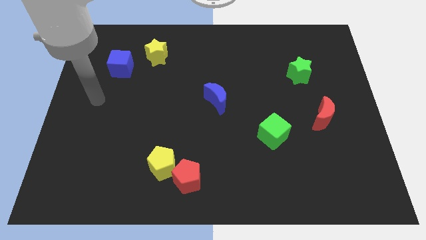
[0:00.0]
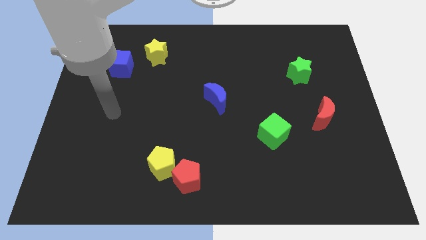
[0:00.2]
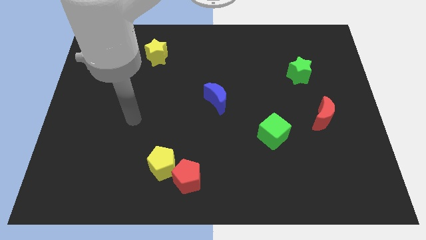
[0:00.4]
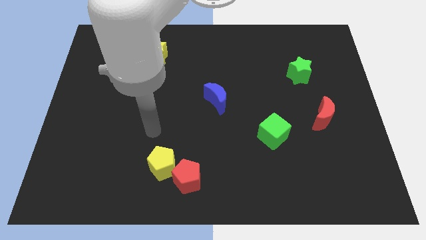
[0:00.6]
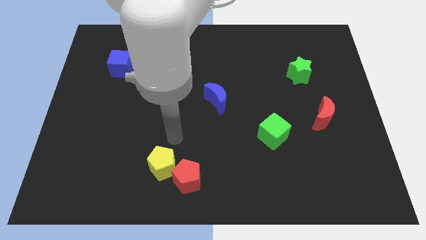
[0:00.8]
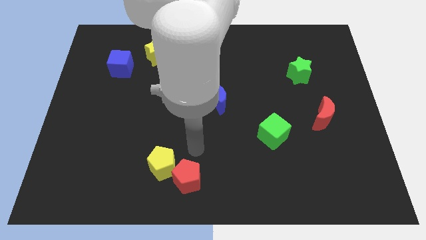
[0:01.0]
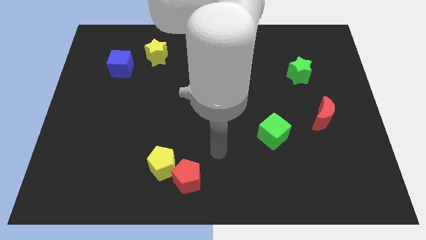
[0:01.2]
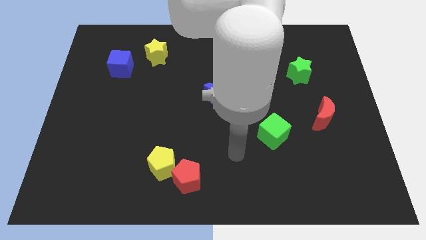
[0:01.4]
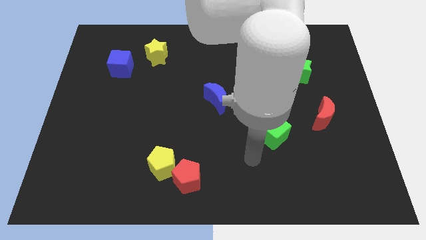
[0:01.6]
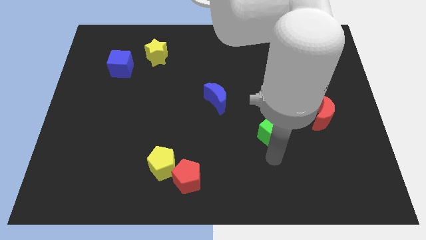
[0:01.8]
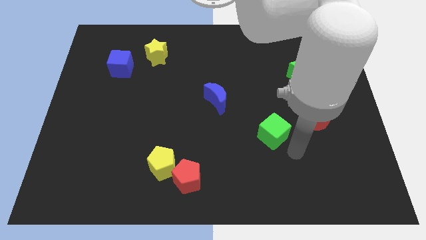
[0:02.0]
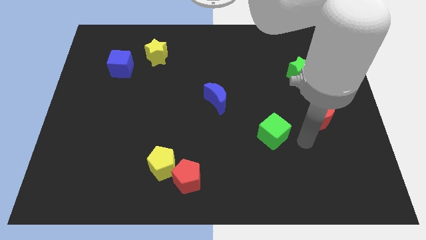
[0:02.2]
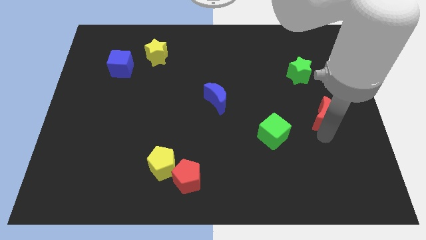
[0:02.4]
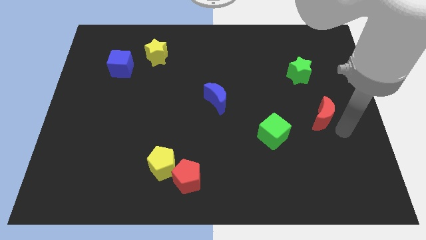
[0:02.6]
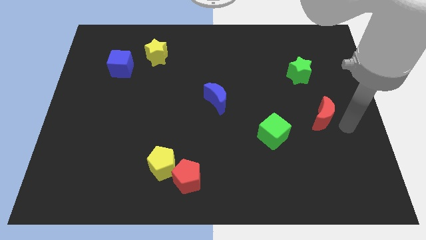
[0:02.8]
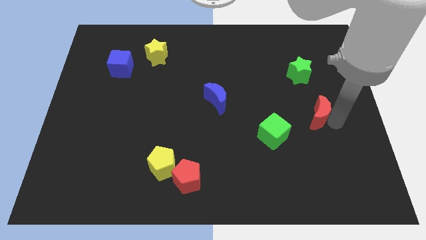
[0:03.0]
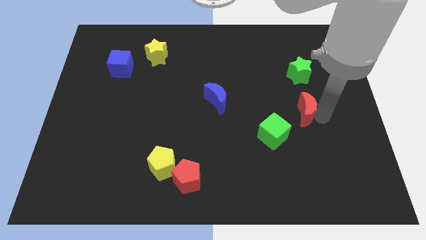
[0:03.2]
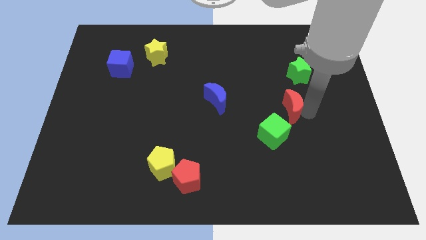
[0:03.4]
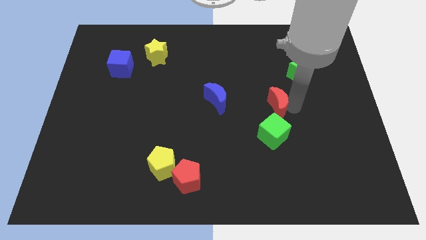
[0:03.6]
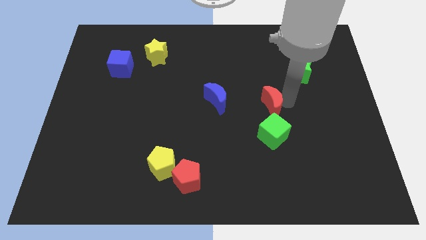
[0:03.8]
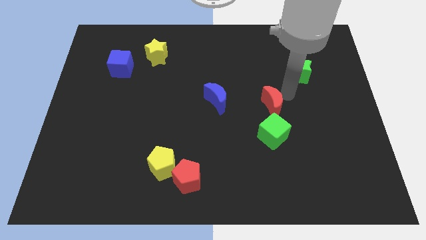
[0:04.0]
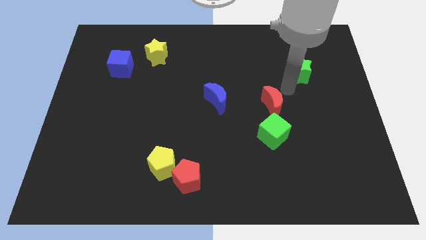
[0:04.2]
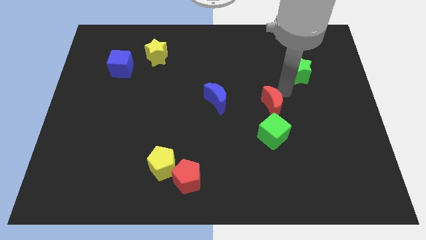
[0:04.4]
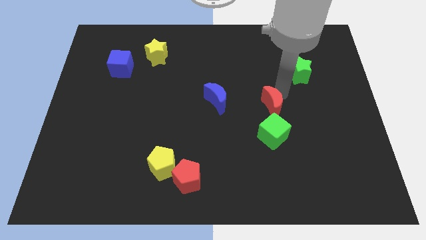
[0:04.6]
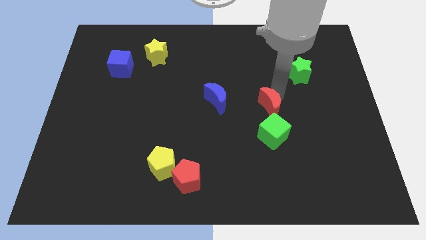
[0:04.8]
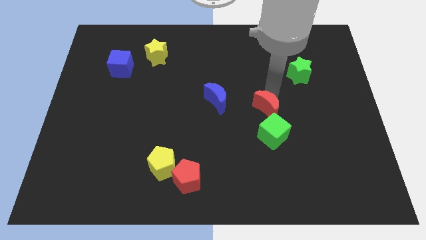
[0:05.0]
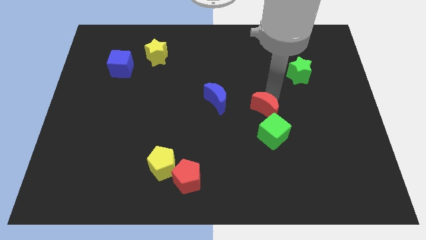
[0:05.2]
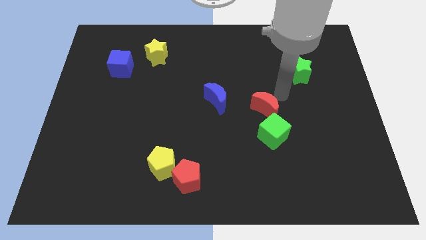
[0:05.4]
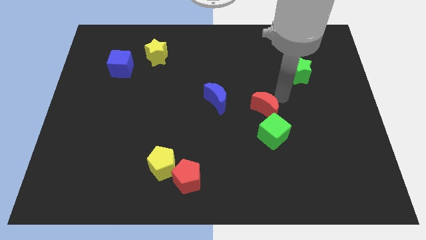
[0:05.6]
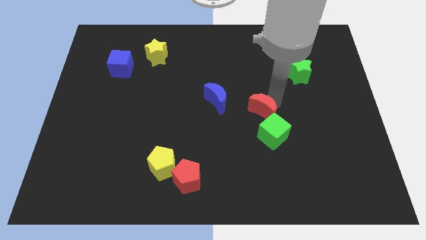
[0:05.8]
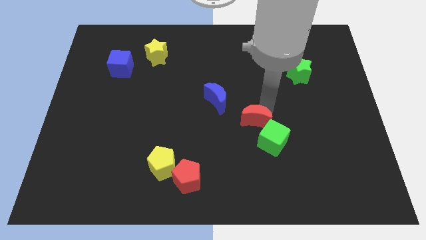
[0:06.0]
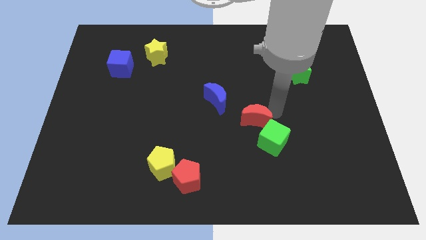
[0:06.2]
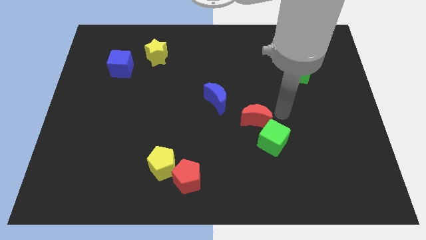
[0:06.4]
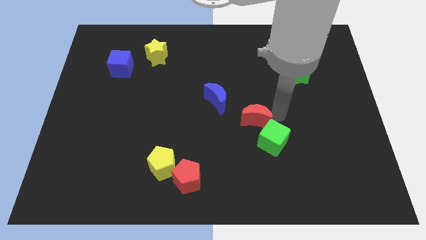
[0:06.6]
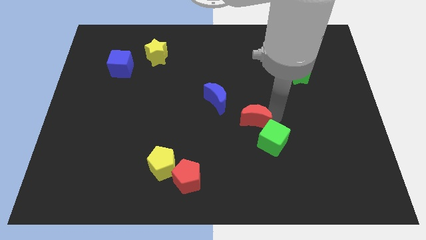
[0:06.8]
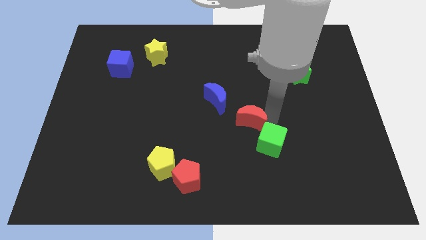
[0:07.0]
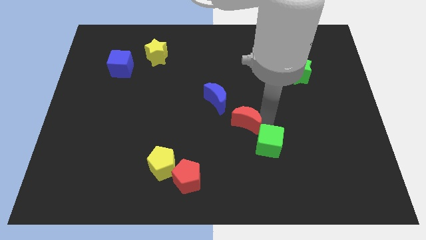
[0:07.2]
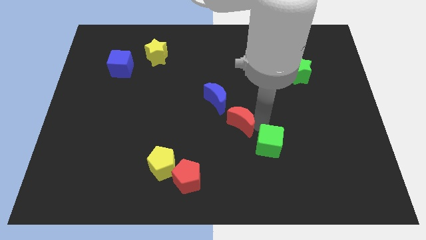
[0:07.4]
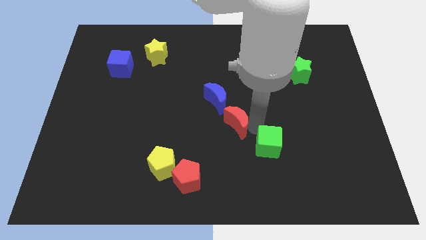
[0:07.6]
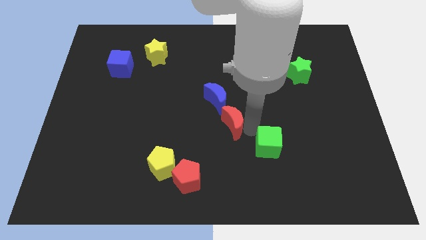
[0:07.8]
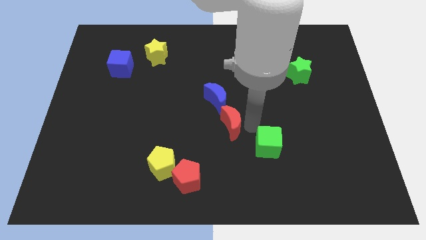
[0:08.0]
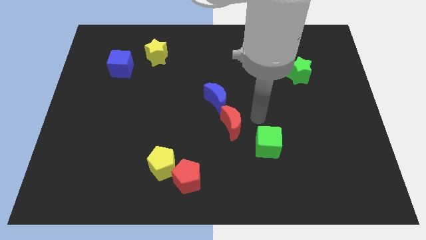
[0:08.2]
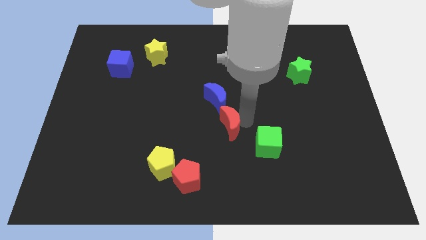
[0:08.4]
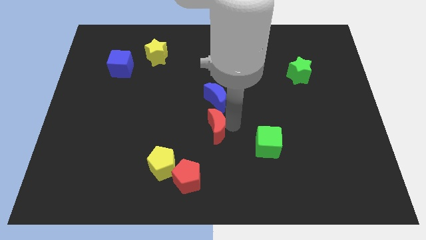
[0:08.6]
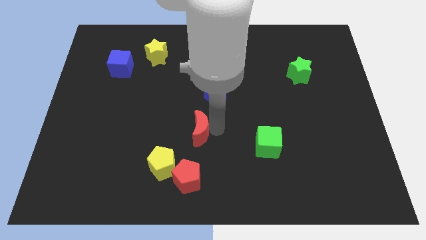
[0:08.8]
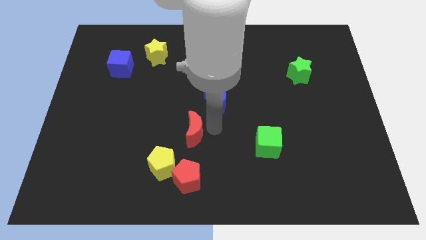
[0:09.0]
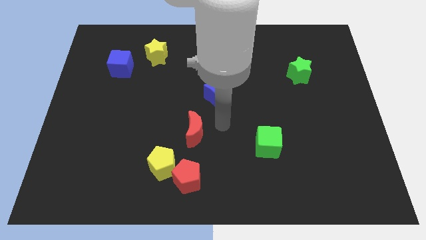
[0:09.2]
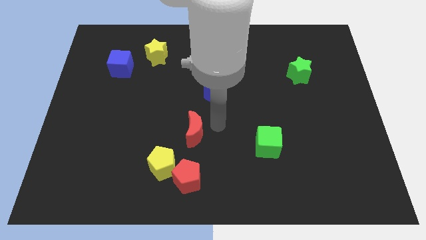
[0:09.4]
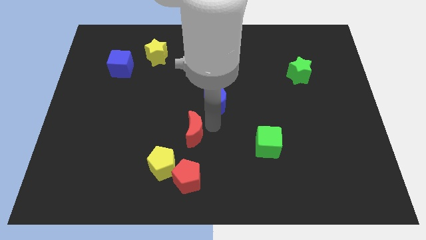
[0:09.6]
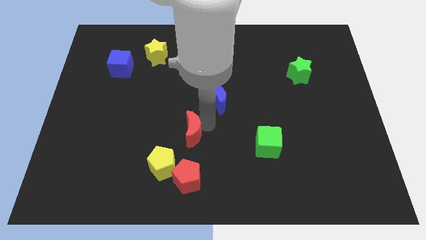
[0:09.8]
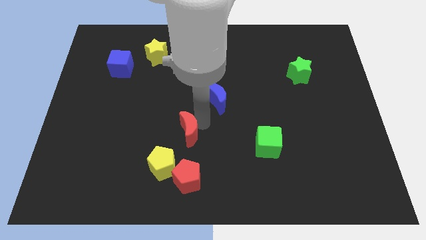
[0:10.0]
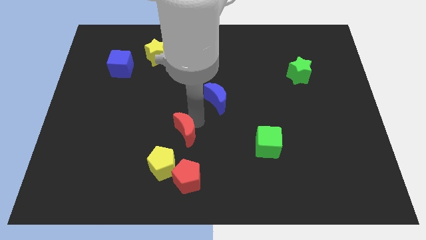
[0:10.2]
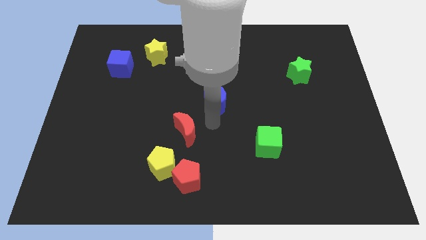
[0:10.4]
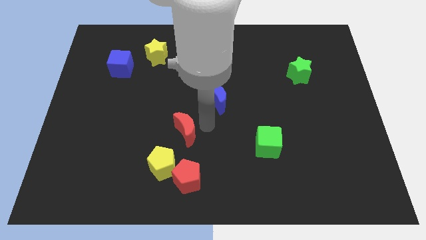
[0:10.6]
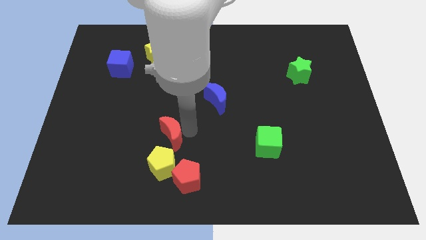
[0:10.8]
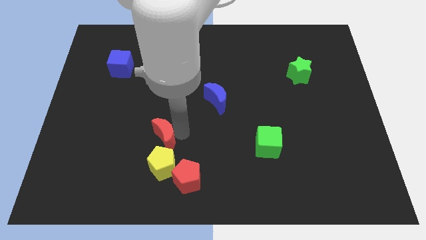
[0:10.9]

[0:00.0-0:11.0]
slide the red moon to the top left of the yellow pentagon

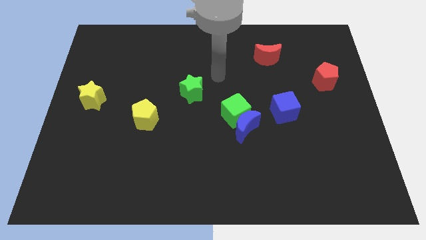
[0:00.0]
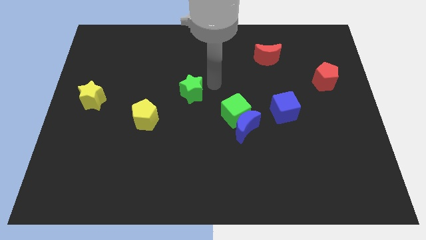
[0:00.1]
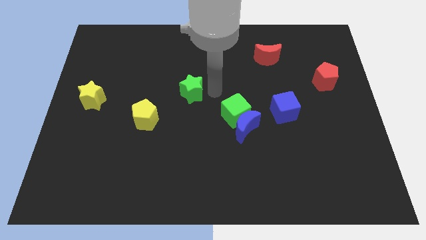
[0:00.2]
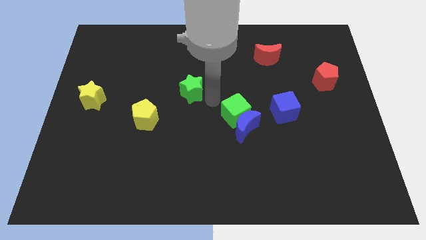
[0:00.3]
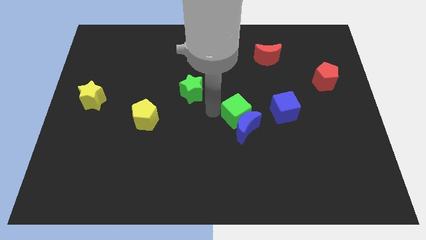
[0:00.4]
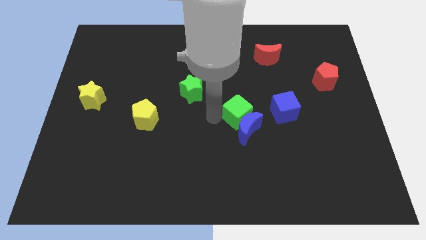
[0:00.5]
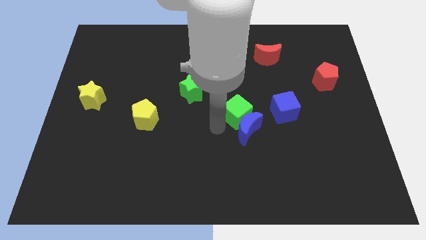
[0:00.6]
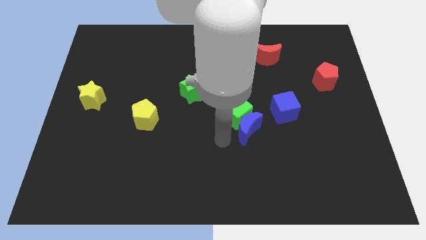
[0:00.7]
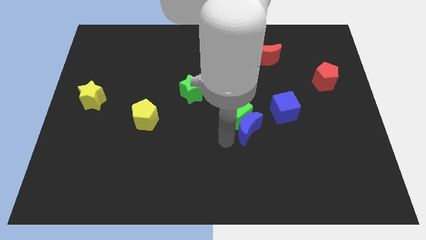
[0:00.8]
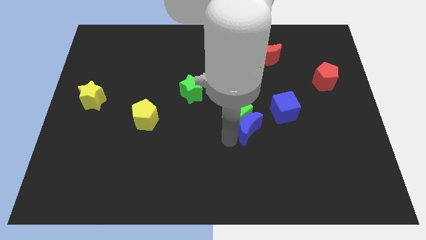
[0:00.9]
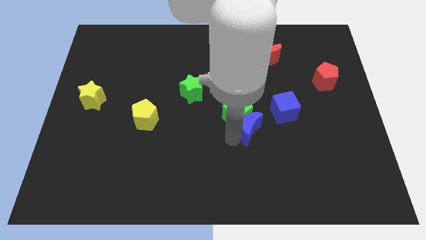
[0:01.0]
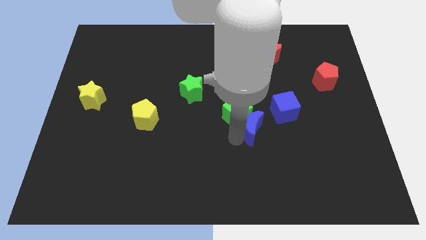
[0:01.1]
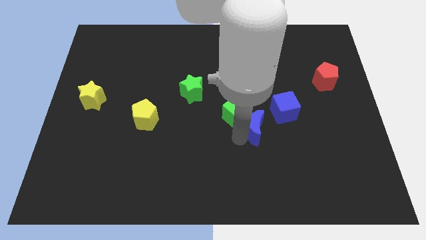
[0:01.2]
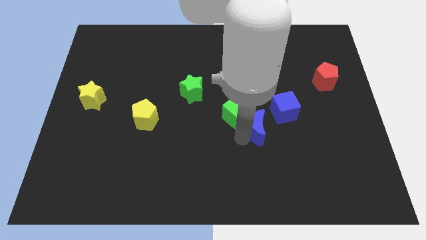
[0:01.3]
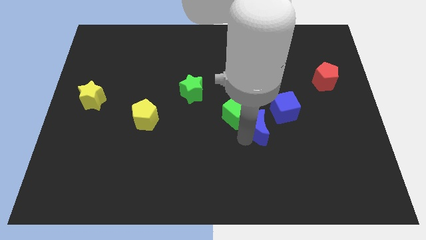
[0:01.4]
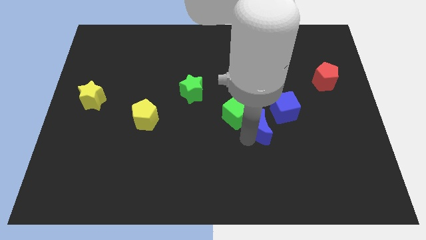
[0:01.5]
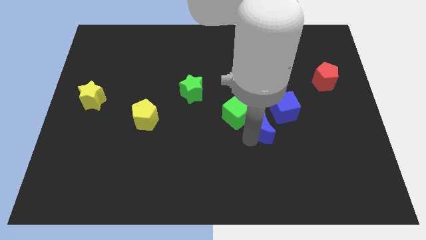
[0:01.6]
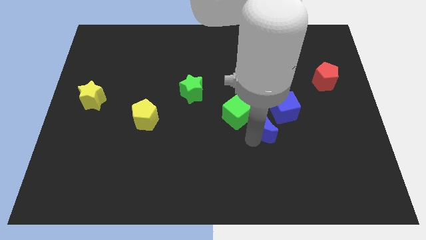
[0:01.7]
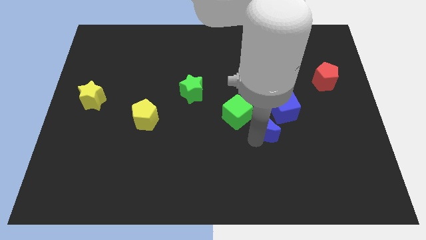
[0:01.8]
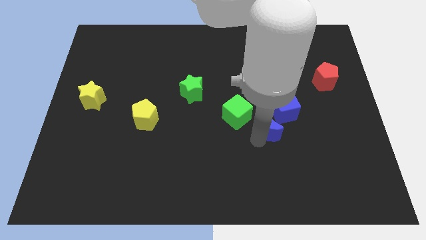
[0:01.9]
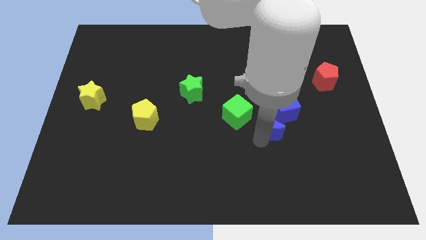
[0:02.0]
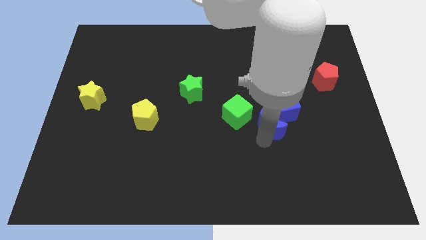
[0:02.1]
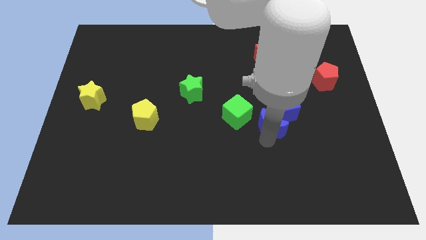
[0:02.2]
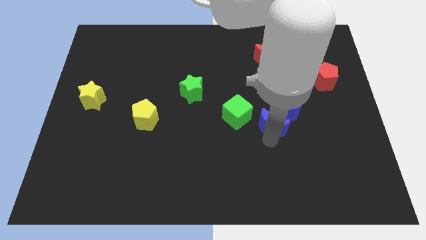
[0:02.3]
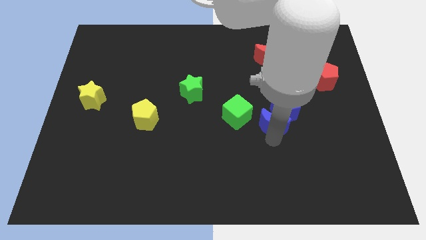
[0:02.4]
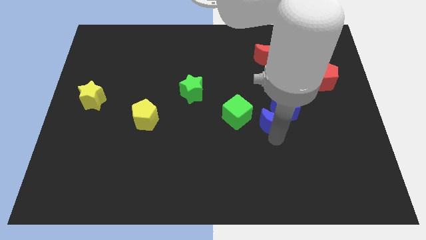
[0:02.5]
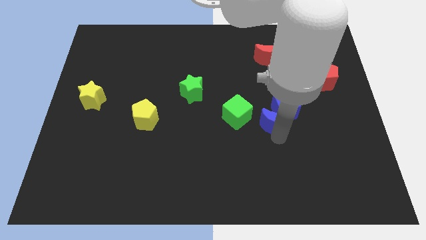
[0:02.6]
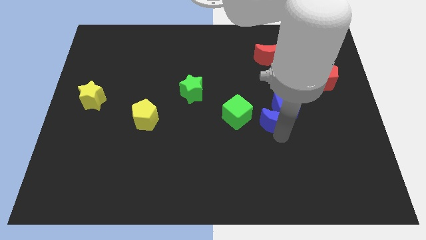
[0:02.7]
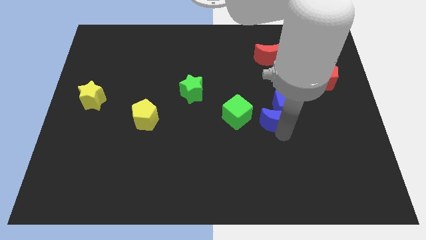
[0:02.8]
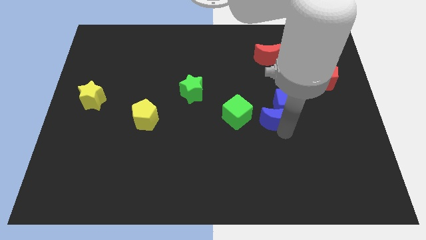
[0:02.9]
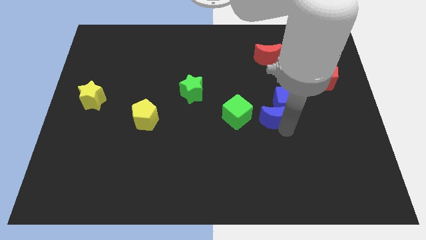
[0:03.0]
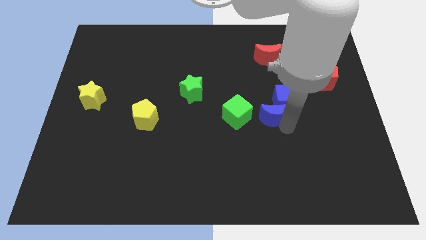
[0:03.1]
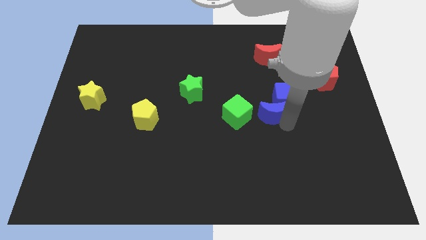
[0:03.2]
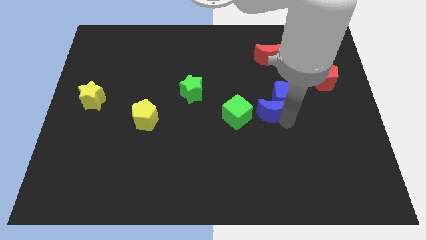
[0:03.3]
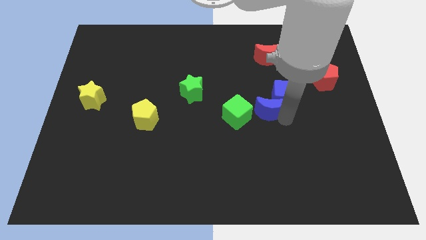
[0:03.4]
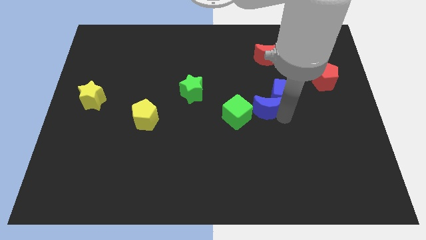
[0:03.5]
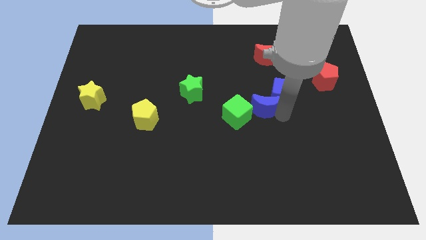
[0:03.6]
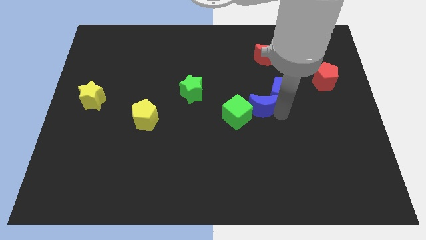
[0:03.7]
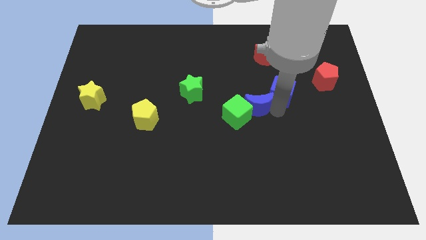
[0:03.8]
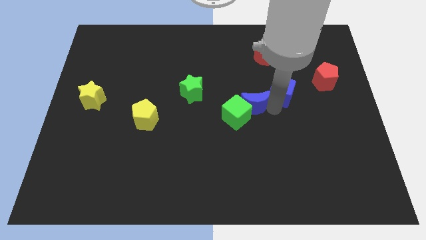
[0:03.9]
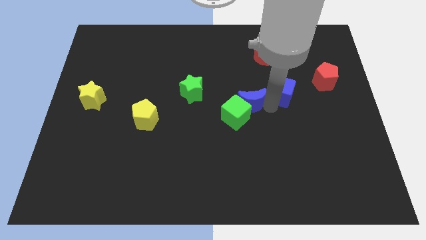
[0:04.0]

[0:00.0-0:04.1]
move the blue moon above the green cube
